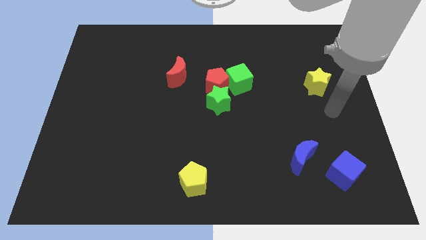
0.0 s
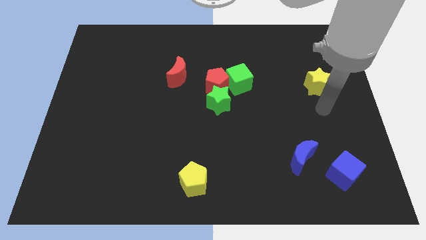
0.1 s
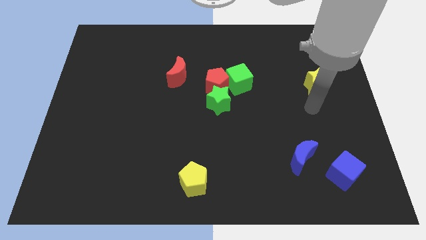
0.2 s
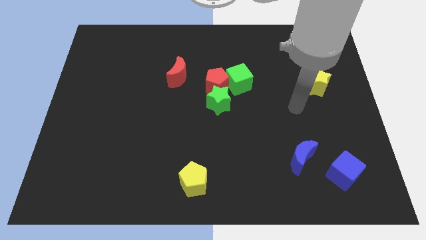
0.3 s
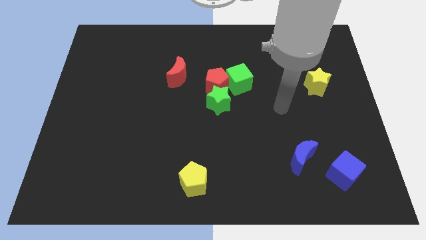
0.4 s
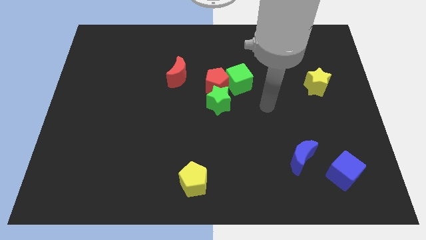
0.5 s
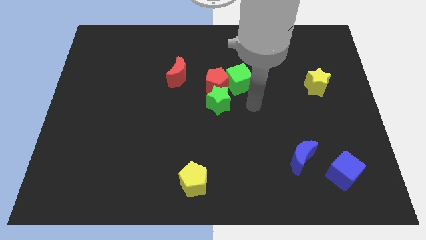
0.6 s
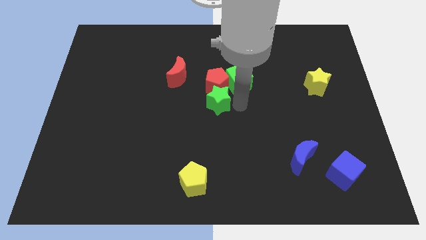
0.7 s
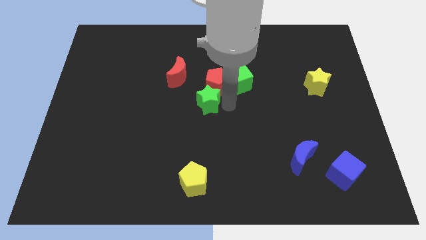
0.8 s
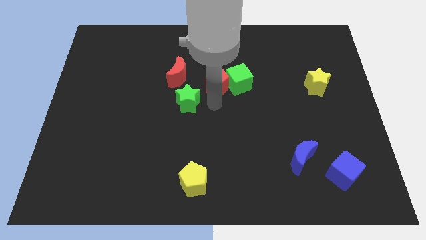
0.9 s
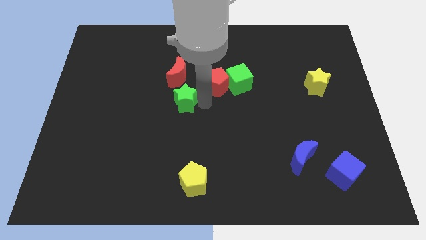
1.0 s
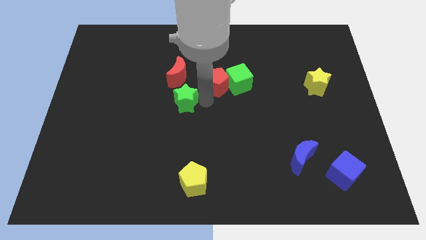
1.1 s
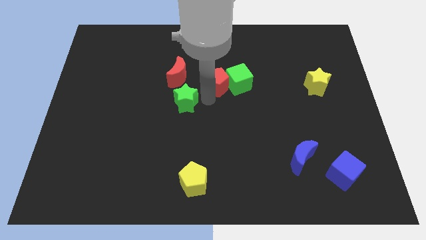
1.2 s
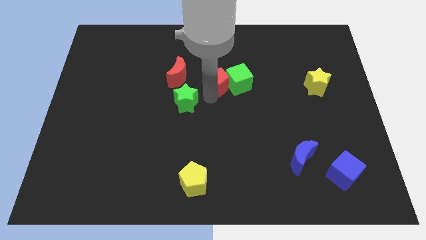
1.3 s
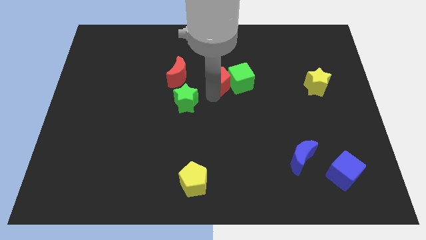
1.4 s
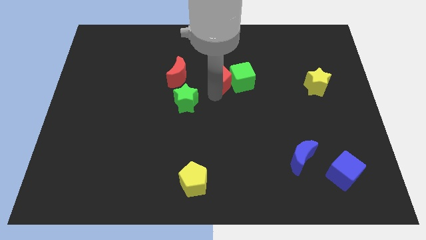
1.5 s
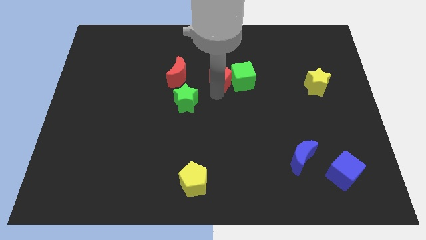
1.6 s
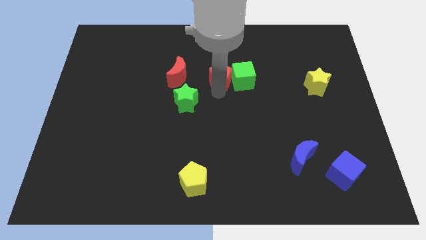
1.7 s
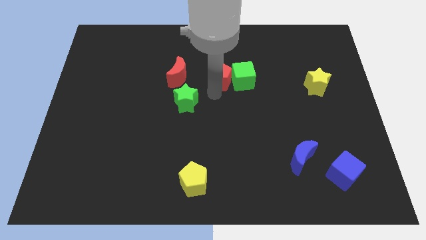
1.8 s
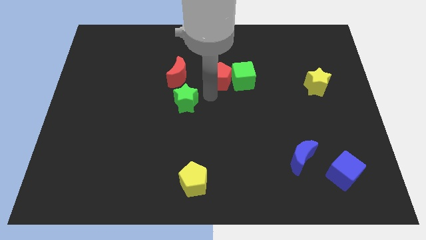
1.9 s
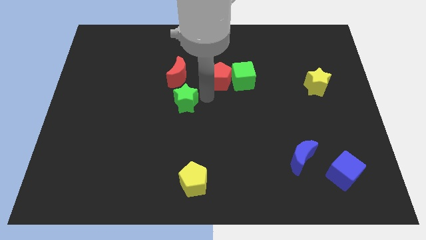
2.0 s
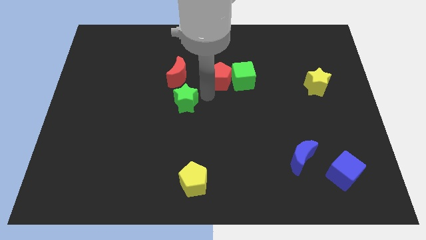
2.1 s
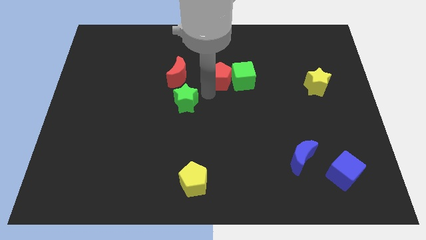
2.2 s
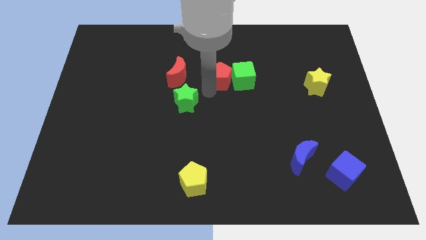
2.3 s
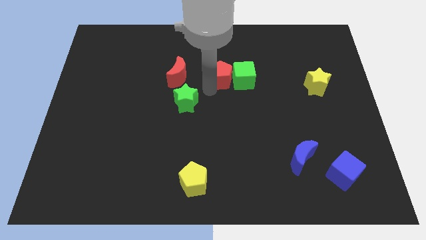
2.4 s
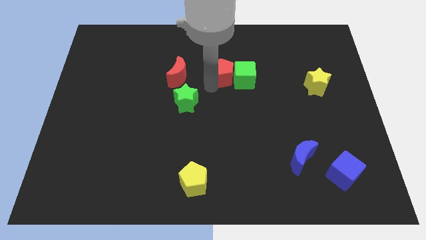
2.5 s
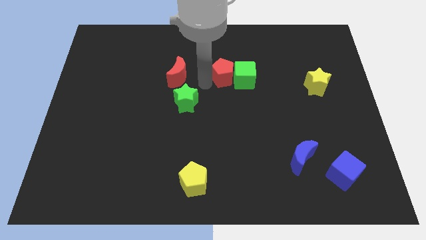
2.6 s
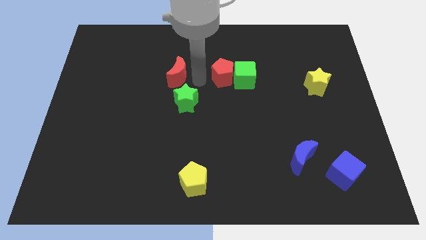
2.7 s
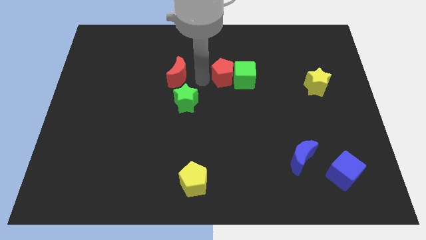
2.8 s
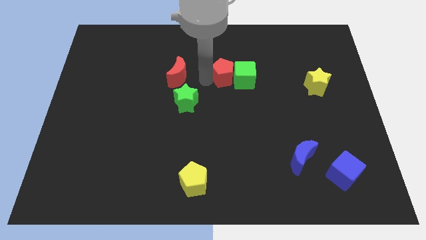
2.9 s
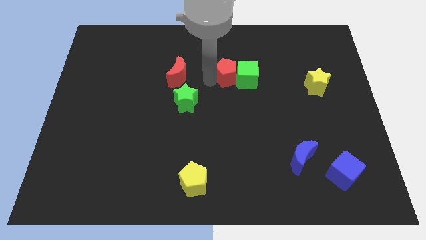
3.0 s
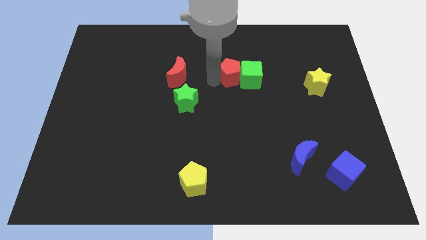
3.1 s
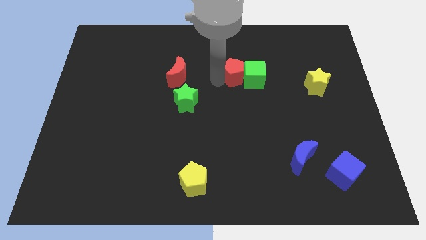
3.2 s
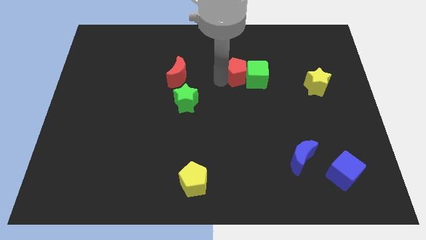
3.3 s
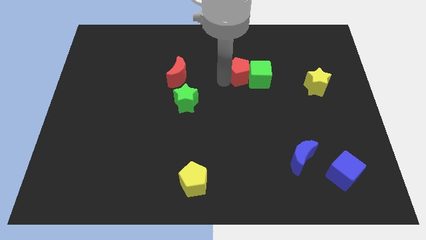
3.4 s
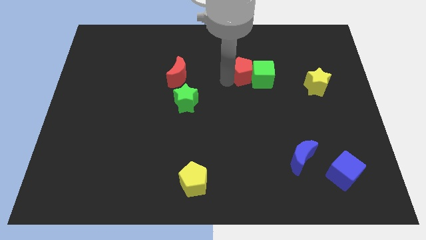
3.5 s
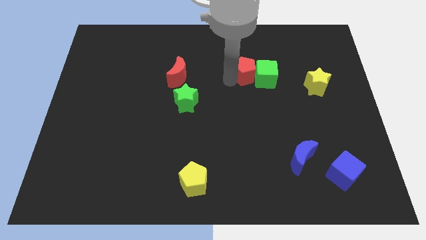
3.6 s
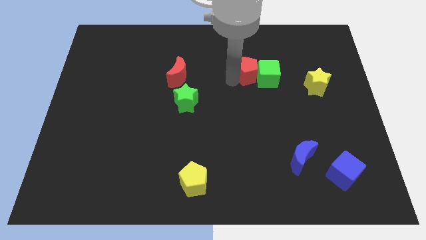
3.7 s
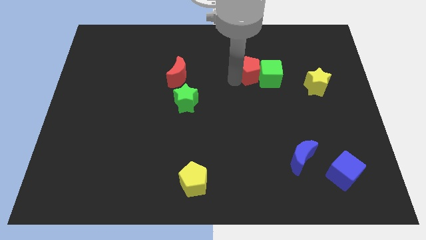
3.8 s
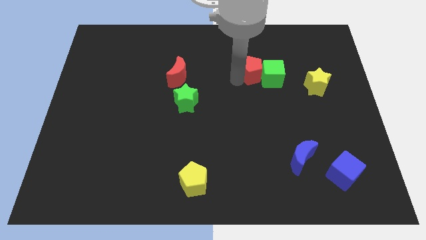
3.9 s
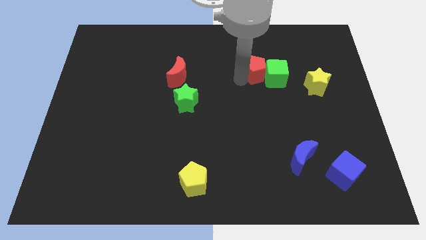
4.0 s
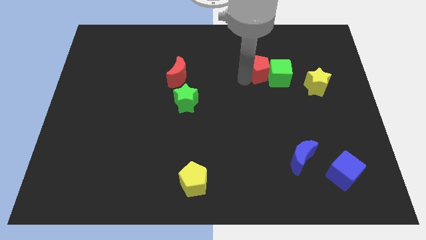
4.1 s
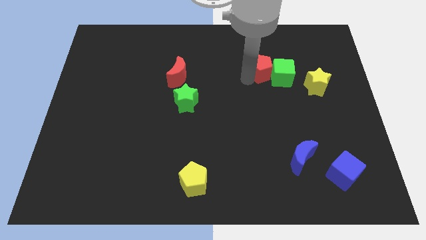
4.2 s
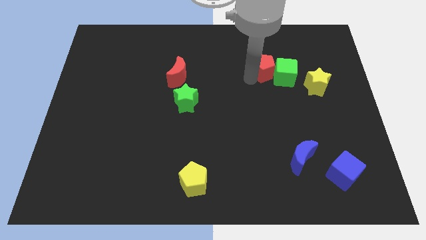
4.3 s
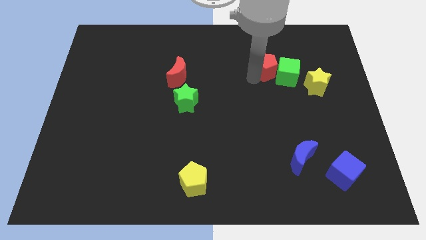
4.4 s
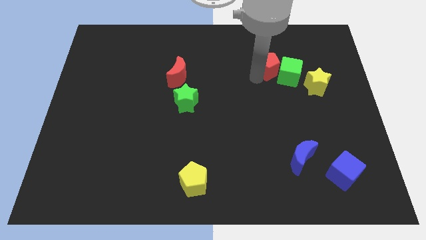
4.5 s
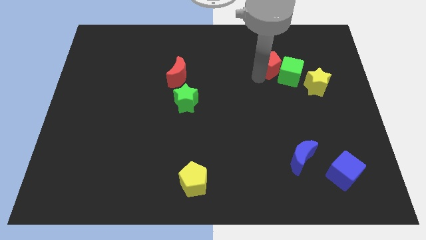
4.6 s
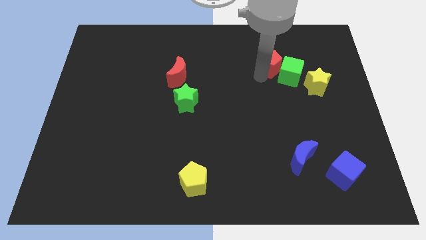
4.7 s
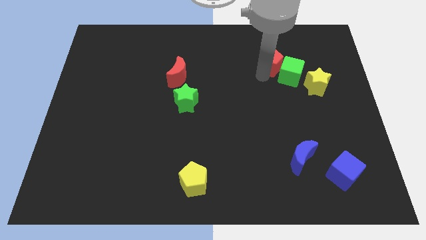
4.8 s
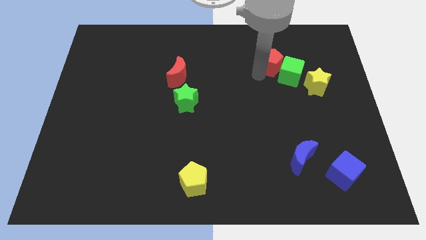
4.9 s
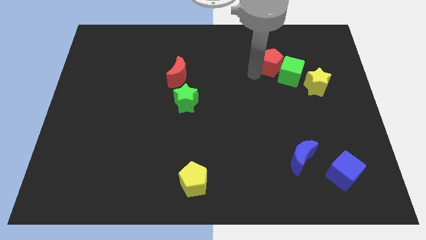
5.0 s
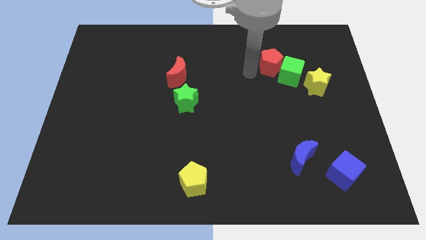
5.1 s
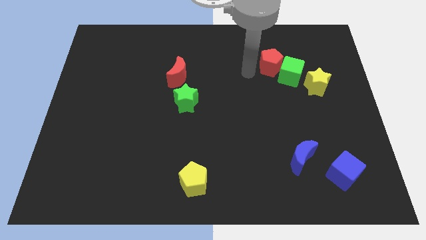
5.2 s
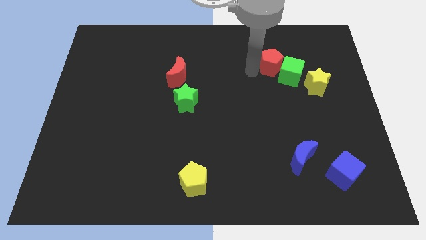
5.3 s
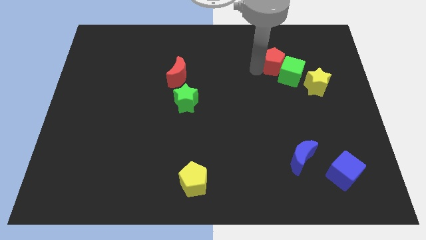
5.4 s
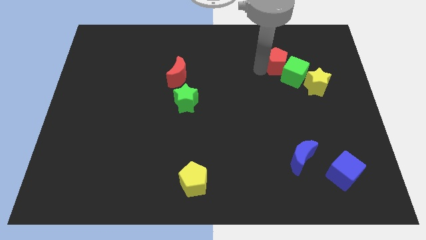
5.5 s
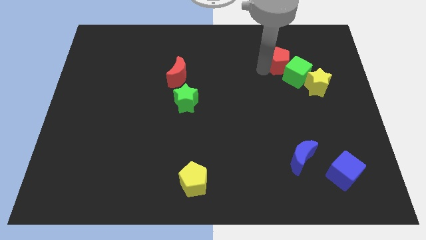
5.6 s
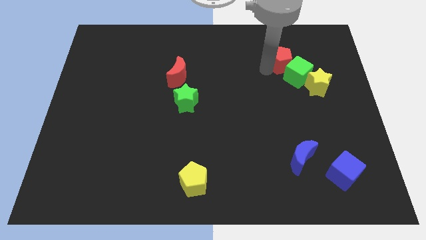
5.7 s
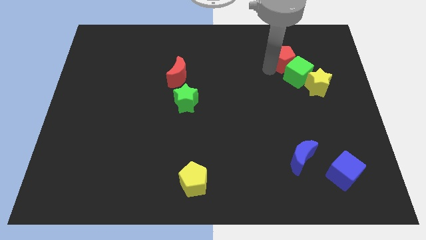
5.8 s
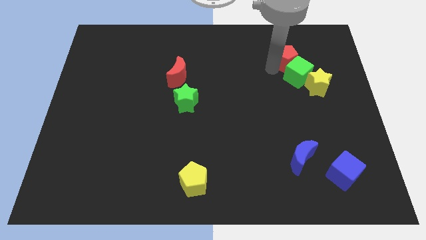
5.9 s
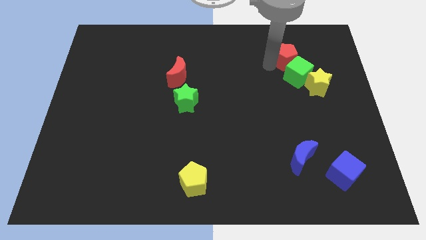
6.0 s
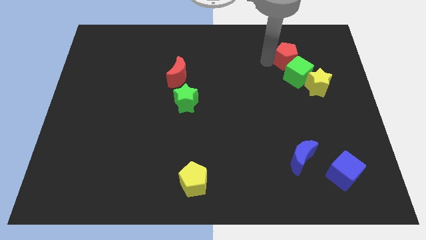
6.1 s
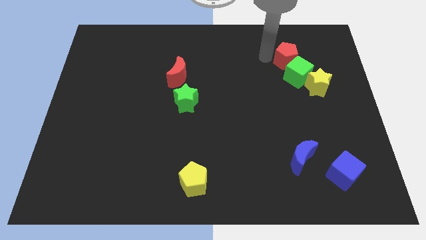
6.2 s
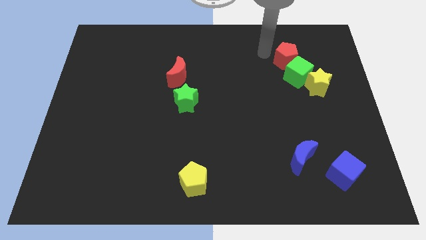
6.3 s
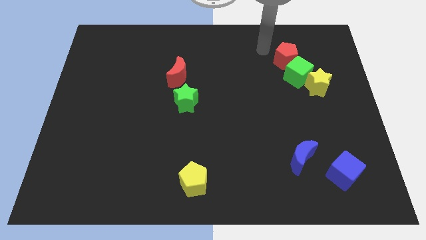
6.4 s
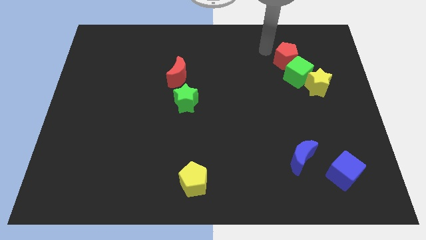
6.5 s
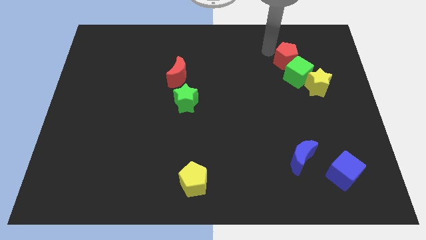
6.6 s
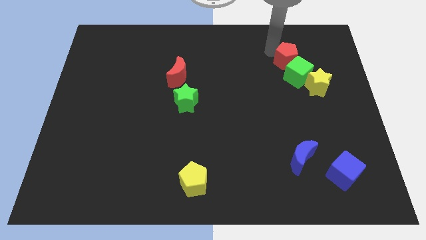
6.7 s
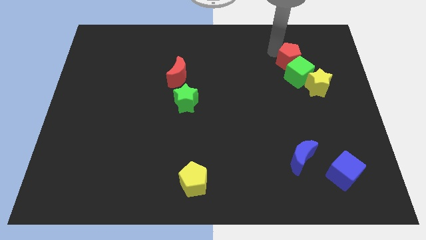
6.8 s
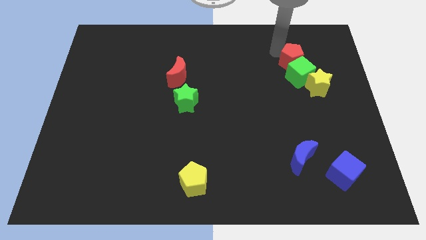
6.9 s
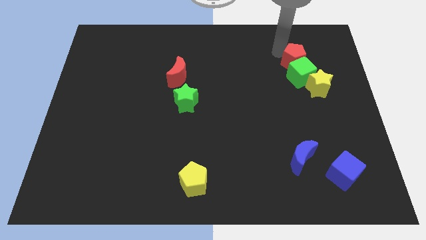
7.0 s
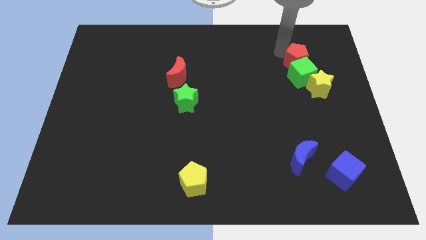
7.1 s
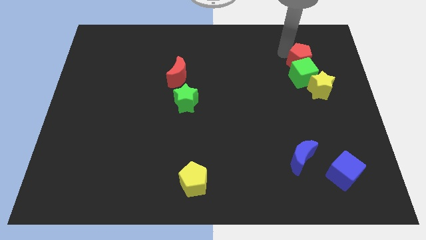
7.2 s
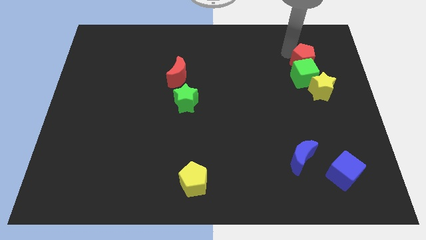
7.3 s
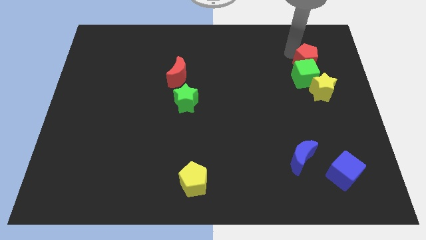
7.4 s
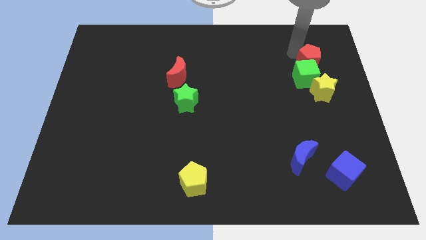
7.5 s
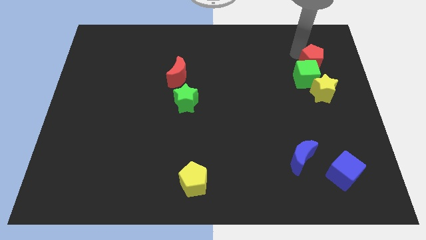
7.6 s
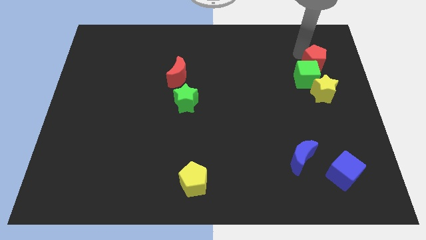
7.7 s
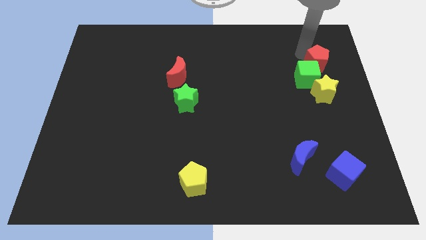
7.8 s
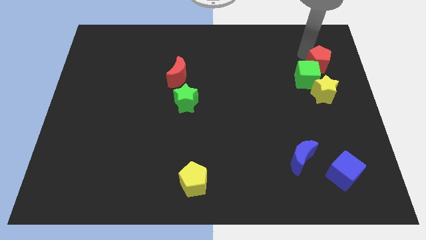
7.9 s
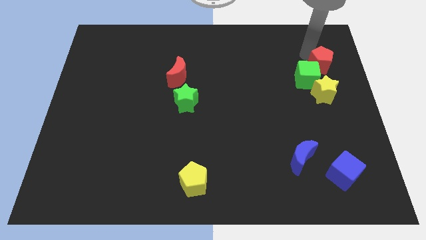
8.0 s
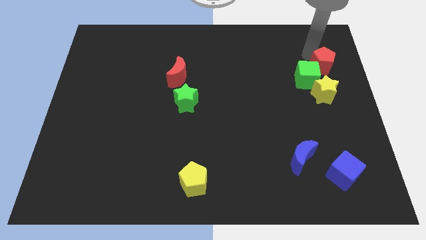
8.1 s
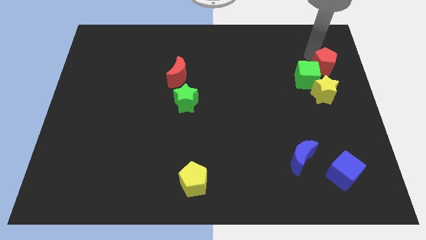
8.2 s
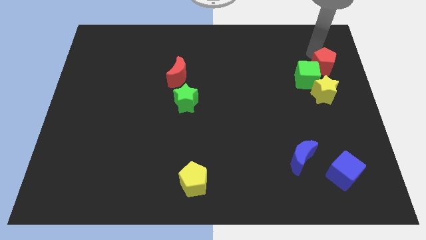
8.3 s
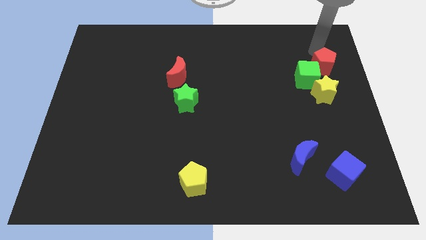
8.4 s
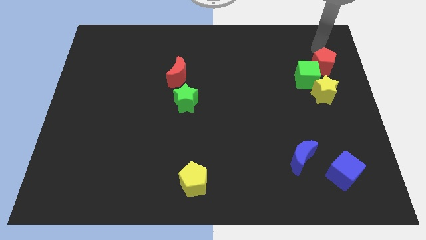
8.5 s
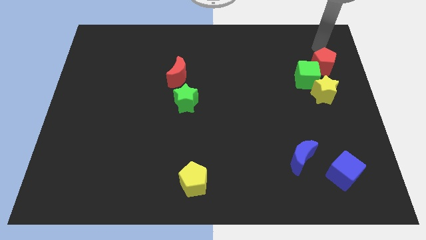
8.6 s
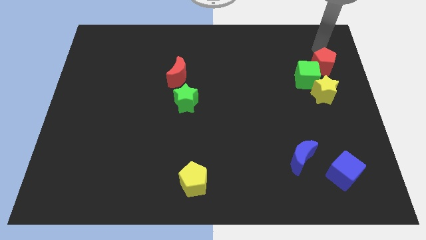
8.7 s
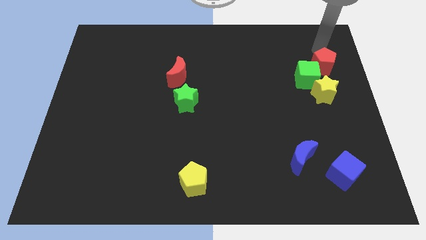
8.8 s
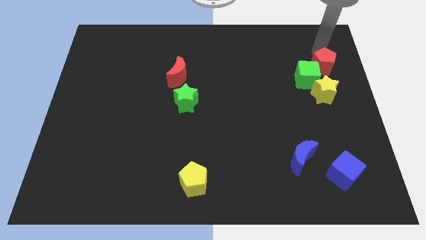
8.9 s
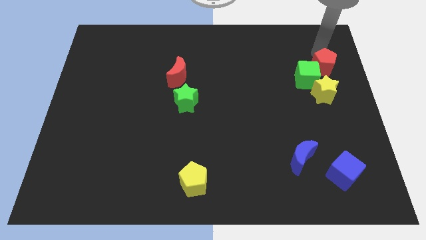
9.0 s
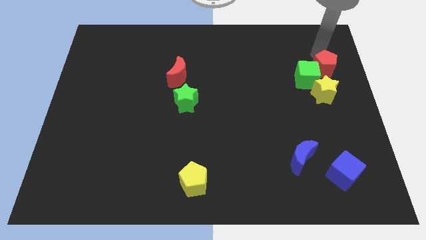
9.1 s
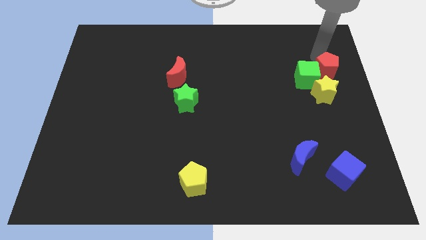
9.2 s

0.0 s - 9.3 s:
slide the red pentagon to the center right
